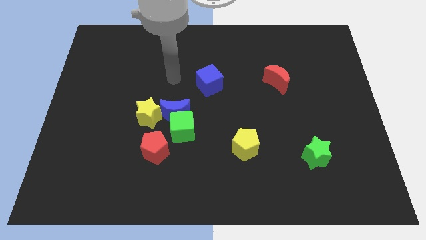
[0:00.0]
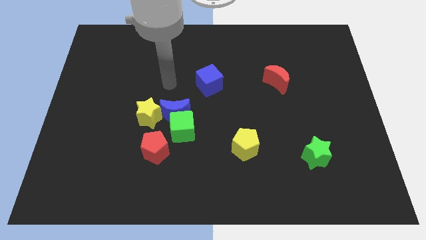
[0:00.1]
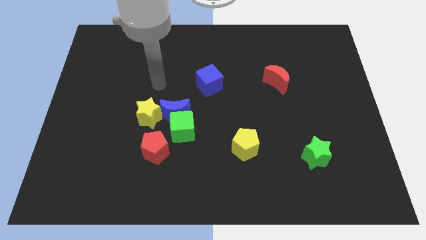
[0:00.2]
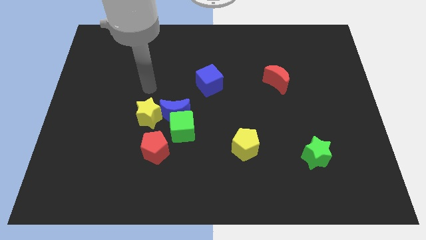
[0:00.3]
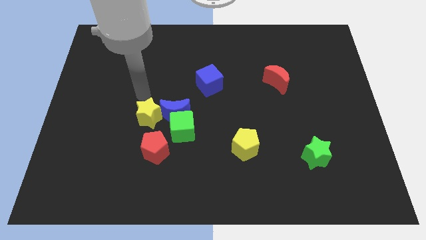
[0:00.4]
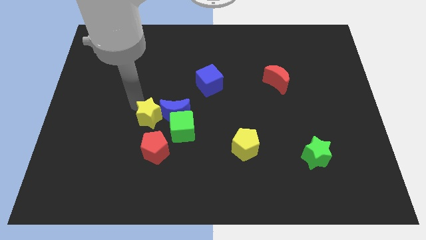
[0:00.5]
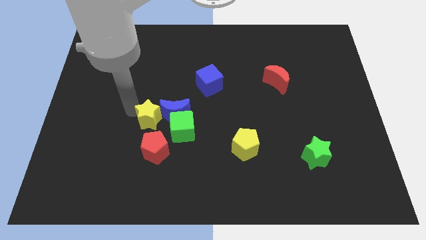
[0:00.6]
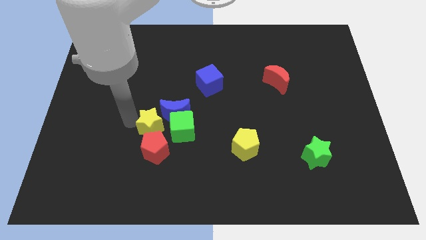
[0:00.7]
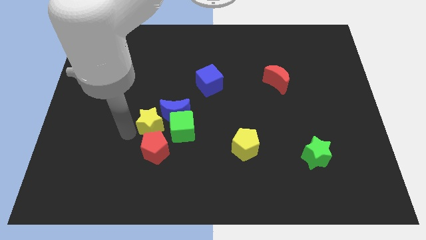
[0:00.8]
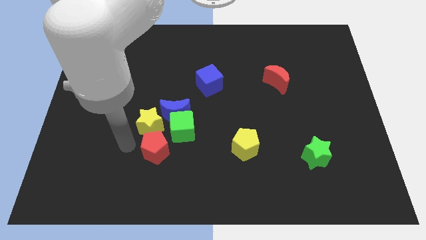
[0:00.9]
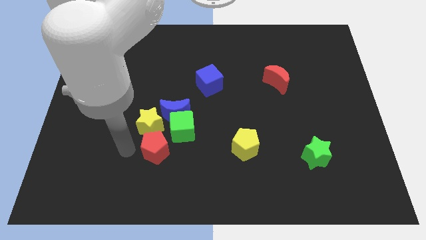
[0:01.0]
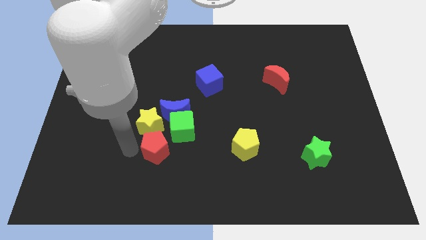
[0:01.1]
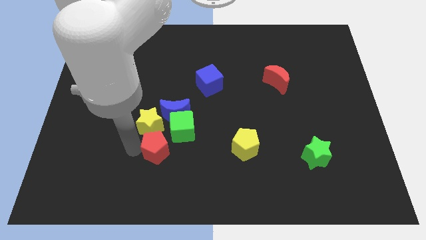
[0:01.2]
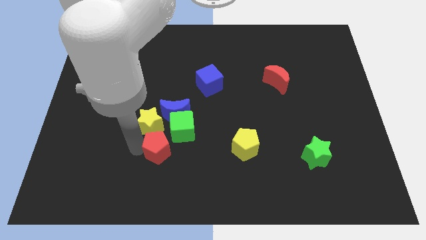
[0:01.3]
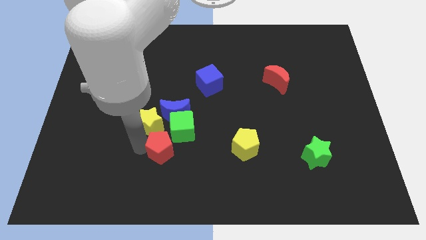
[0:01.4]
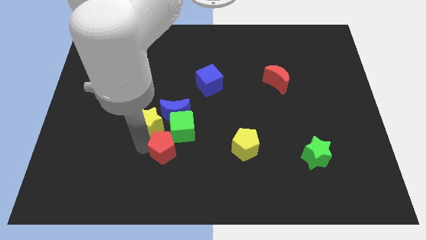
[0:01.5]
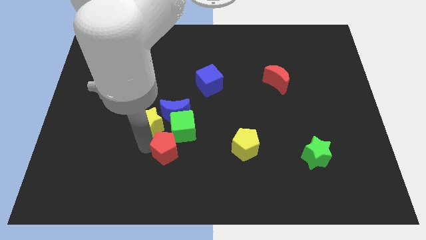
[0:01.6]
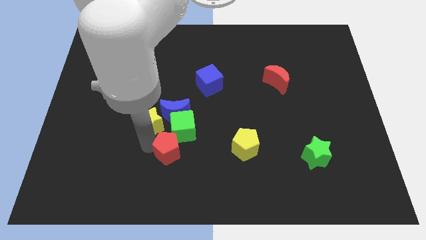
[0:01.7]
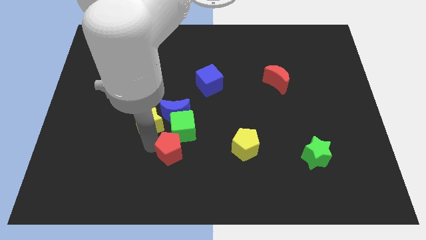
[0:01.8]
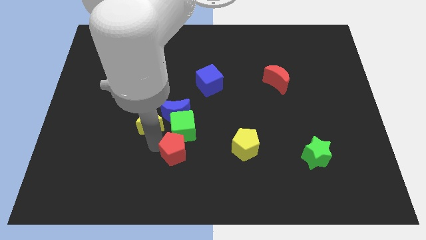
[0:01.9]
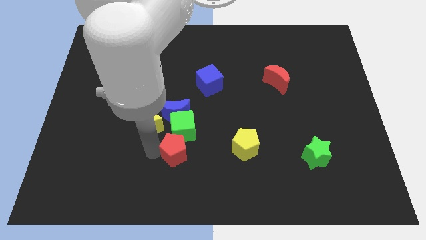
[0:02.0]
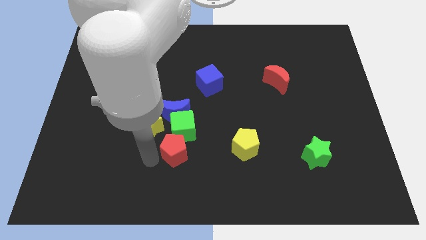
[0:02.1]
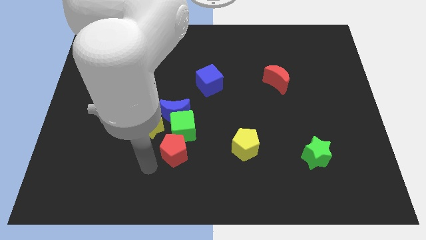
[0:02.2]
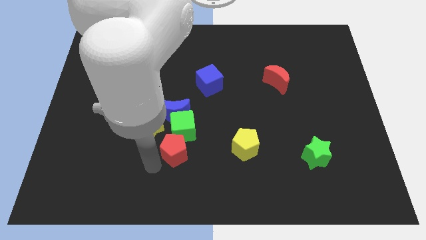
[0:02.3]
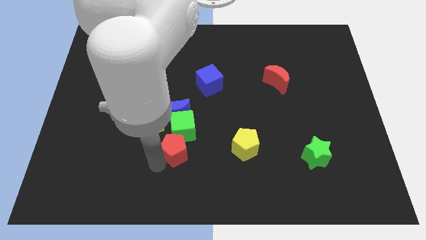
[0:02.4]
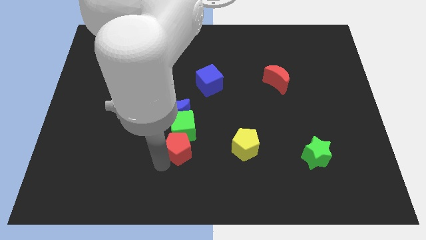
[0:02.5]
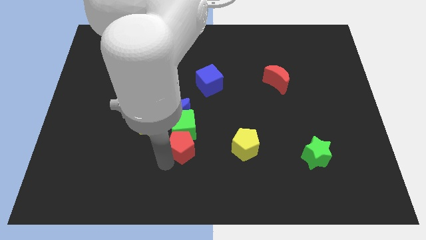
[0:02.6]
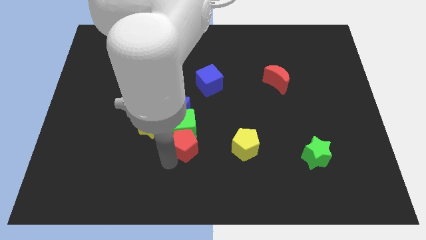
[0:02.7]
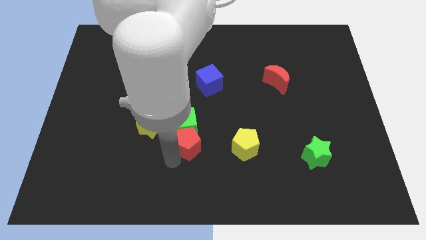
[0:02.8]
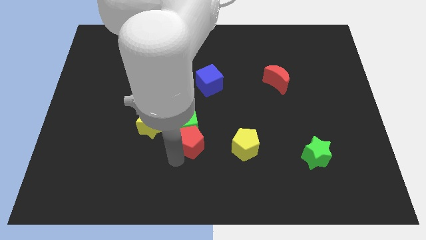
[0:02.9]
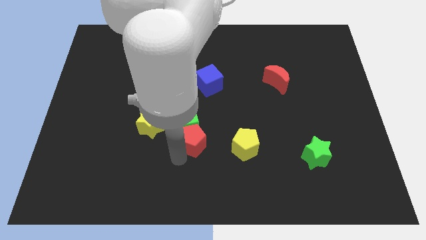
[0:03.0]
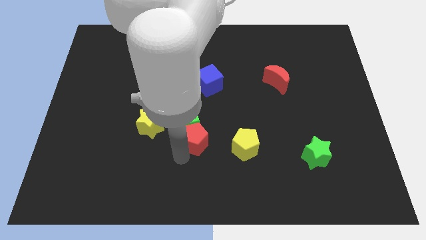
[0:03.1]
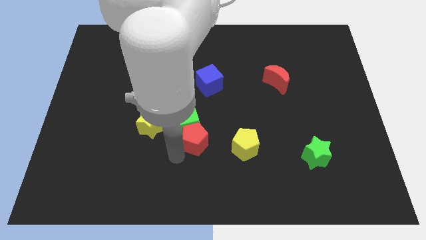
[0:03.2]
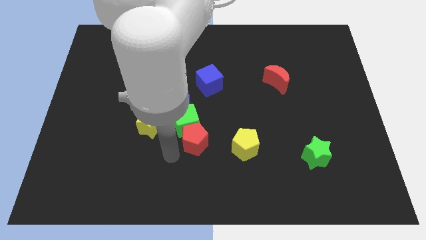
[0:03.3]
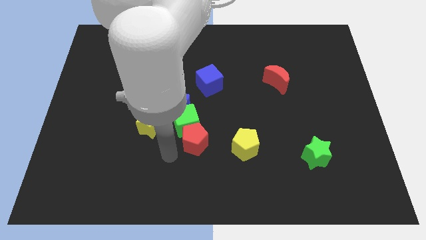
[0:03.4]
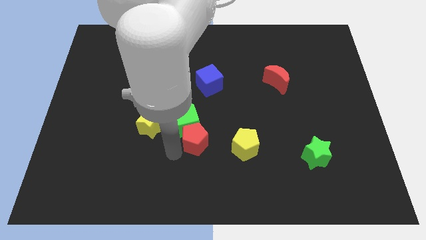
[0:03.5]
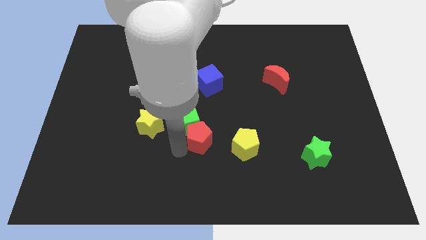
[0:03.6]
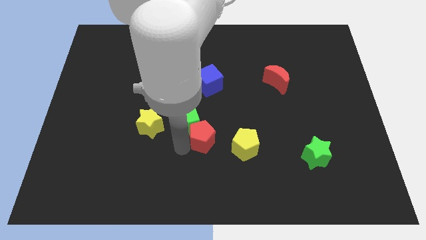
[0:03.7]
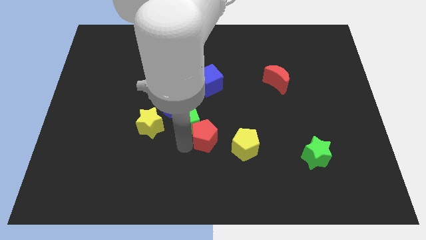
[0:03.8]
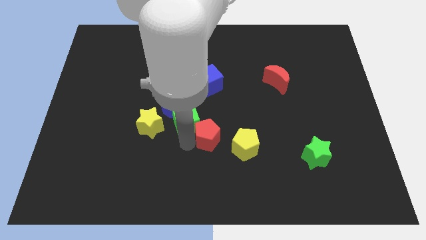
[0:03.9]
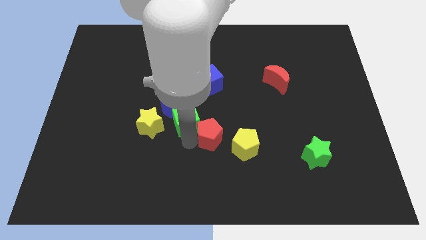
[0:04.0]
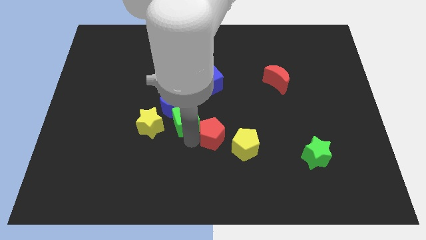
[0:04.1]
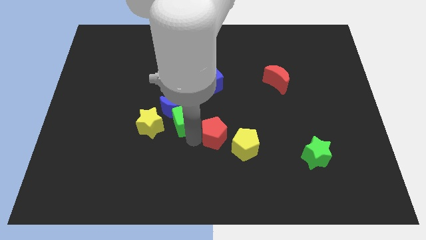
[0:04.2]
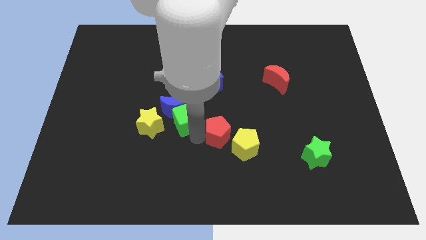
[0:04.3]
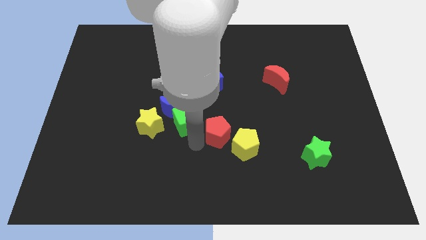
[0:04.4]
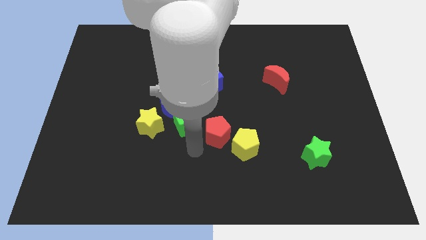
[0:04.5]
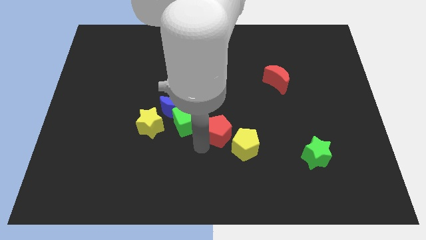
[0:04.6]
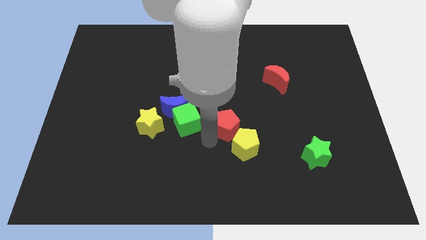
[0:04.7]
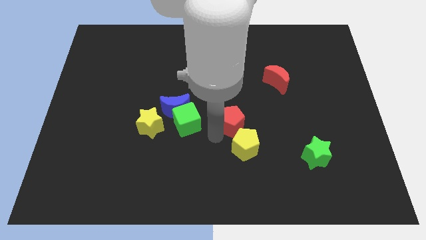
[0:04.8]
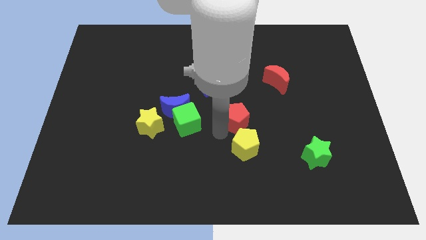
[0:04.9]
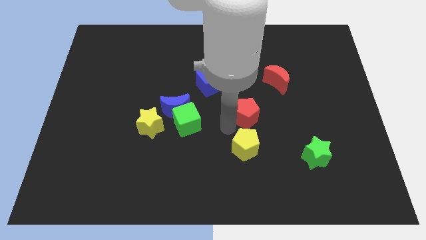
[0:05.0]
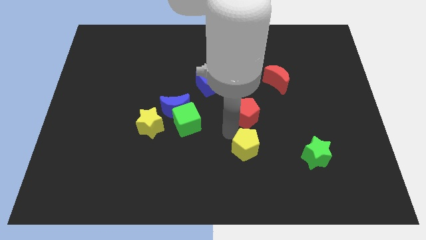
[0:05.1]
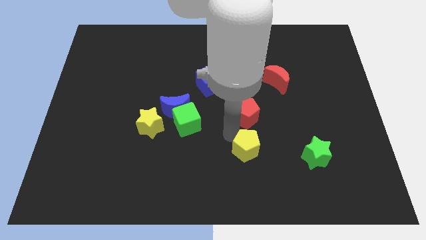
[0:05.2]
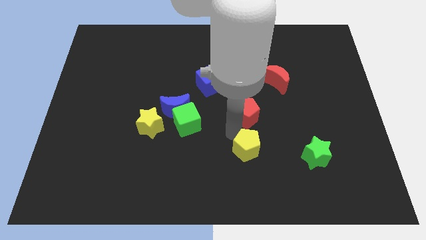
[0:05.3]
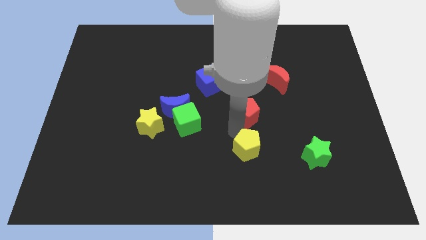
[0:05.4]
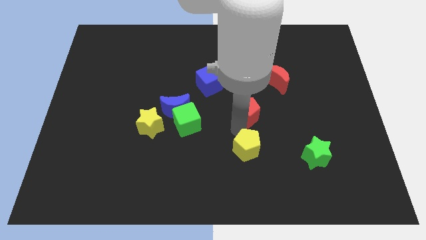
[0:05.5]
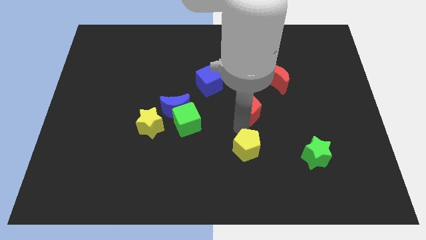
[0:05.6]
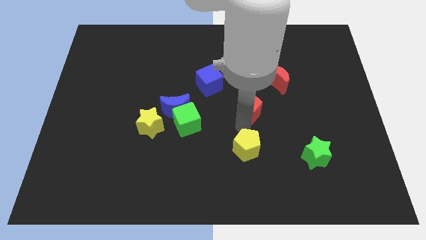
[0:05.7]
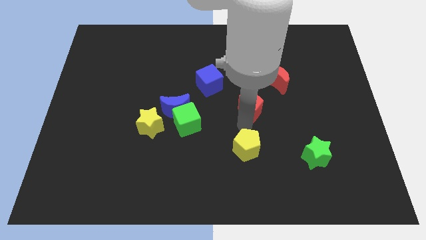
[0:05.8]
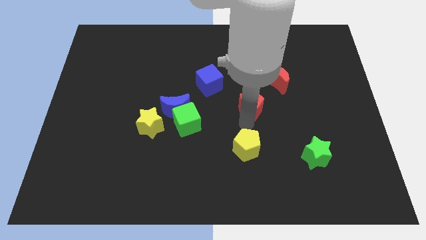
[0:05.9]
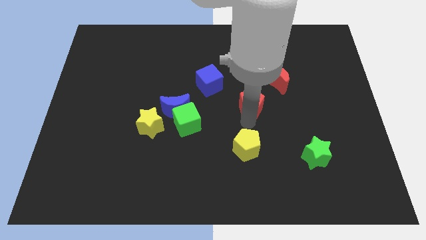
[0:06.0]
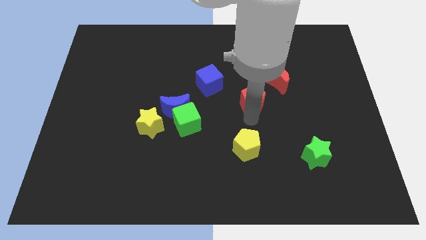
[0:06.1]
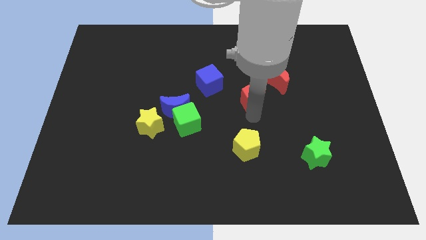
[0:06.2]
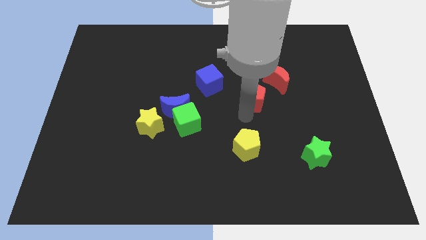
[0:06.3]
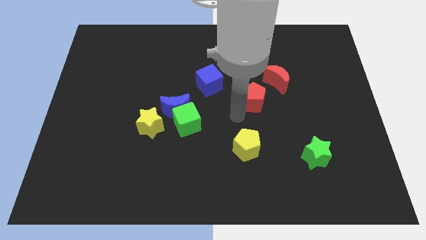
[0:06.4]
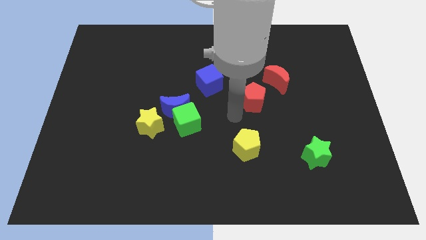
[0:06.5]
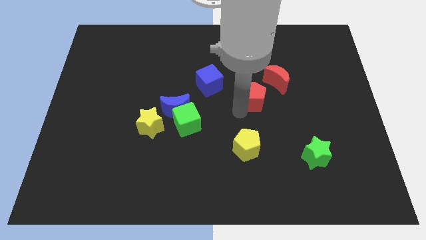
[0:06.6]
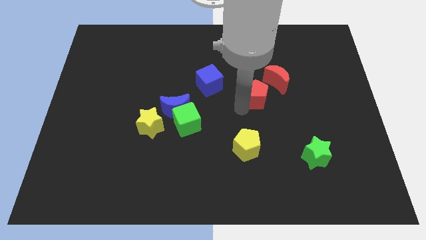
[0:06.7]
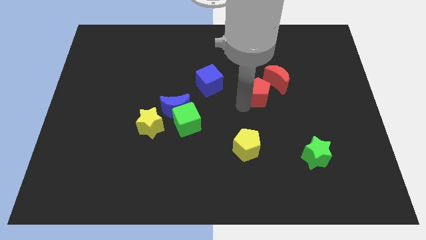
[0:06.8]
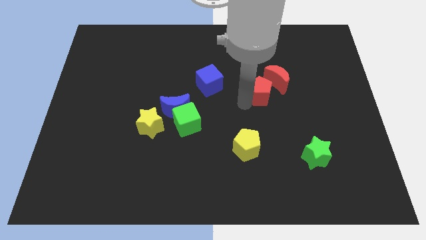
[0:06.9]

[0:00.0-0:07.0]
put the red pentagon next to the red moon
